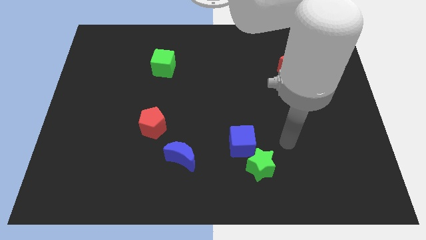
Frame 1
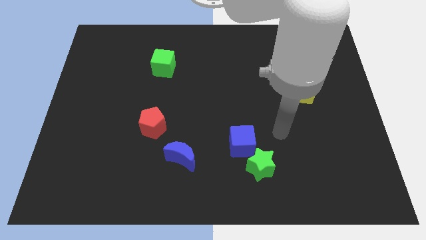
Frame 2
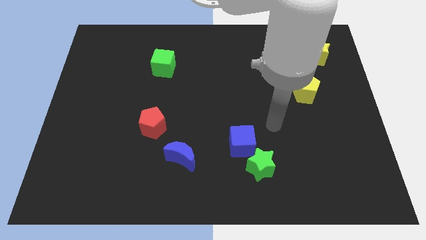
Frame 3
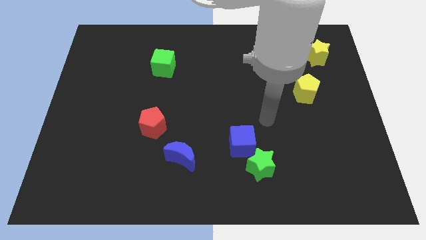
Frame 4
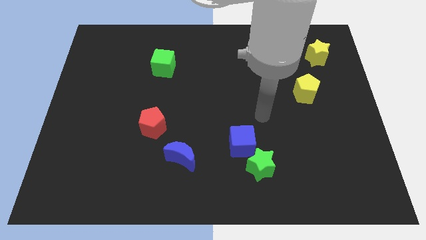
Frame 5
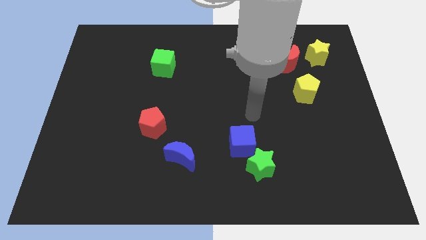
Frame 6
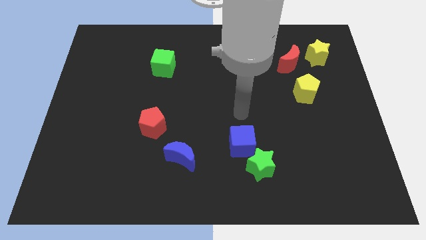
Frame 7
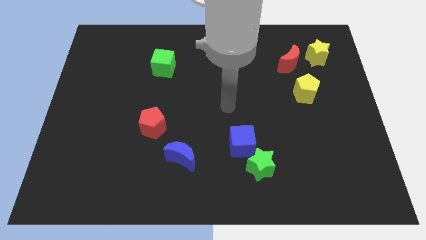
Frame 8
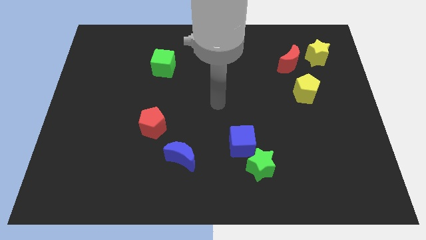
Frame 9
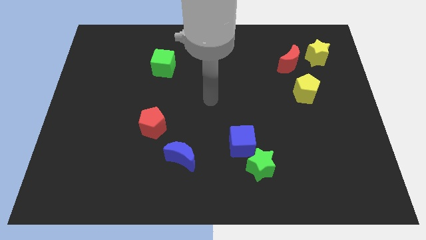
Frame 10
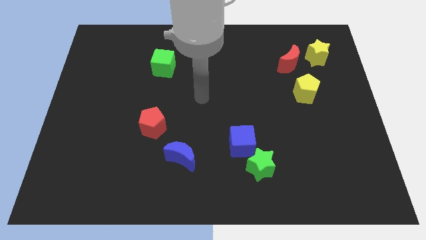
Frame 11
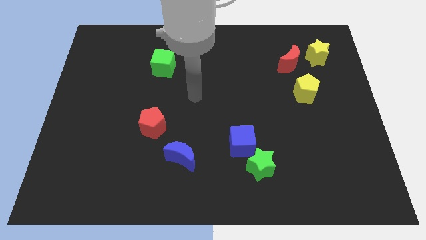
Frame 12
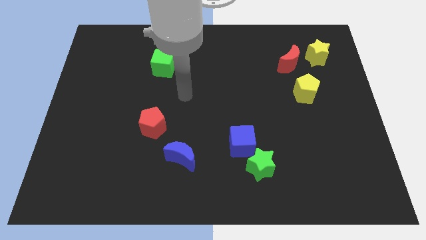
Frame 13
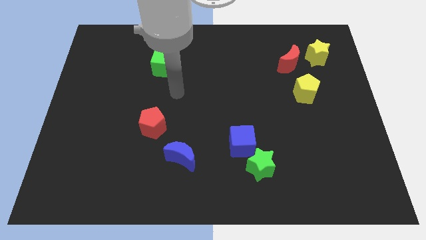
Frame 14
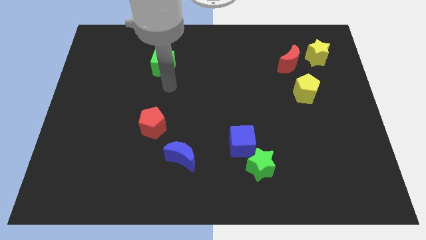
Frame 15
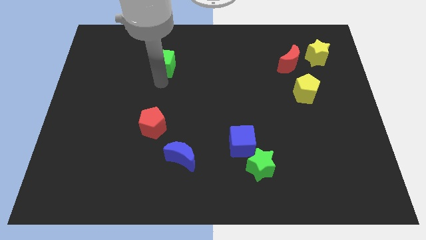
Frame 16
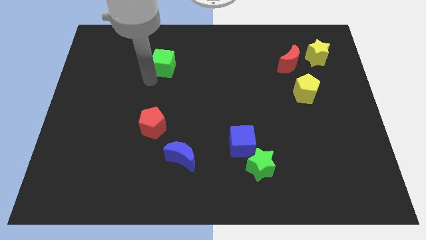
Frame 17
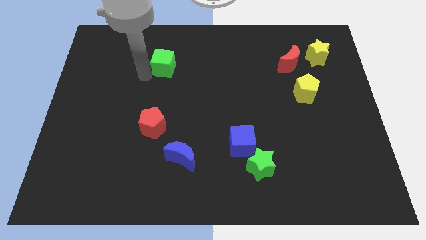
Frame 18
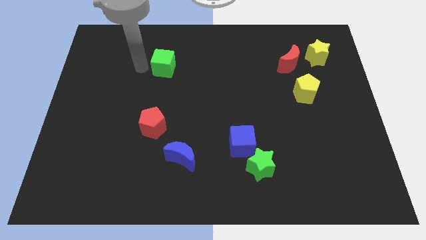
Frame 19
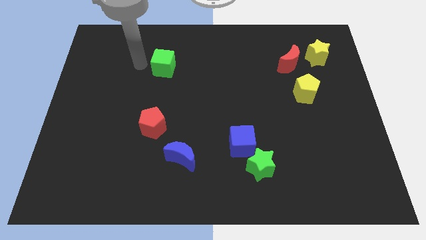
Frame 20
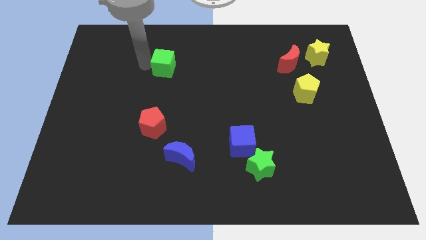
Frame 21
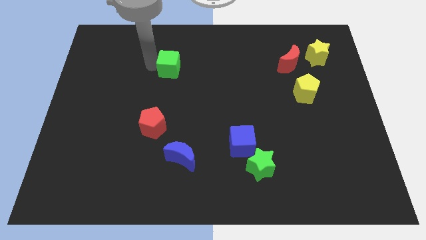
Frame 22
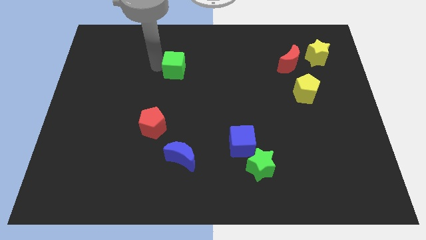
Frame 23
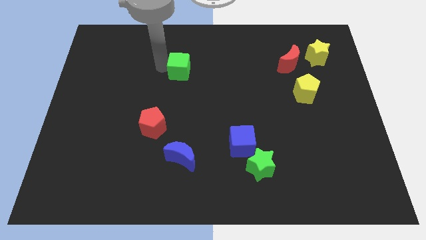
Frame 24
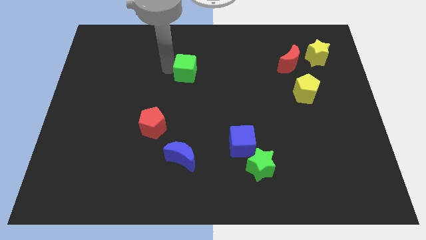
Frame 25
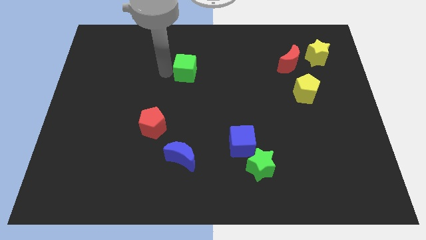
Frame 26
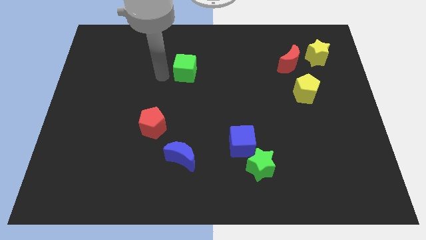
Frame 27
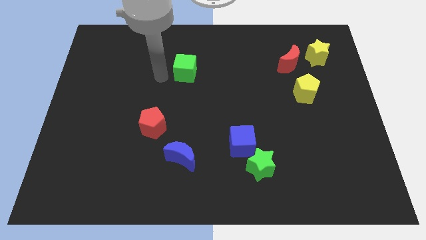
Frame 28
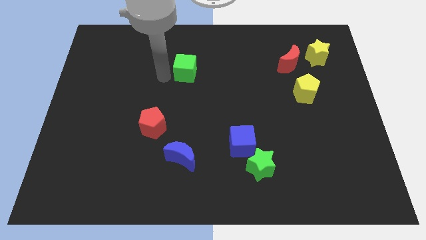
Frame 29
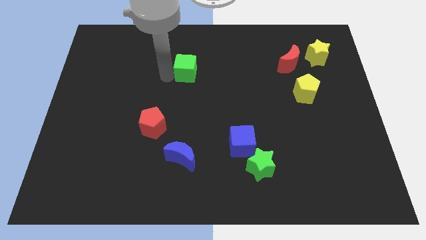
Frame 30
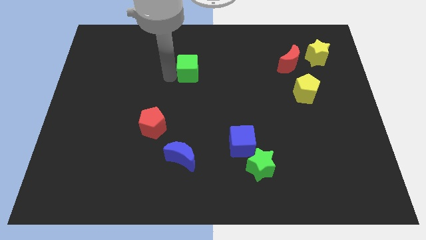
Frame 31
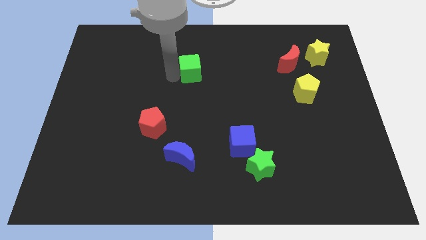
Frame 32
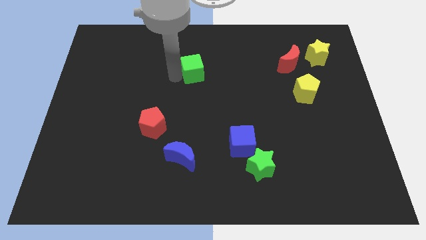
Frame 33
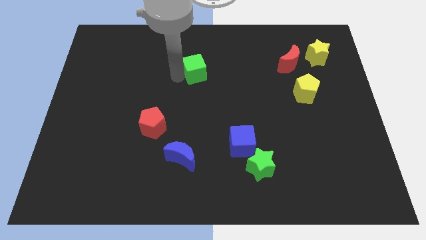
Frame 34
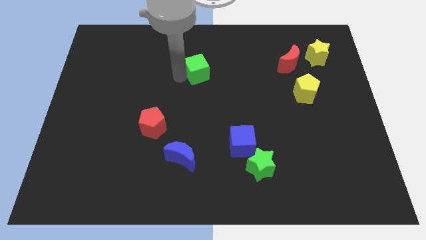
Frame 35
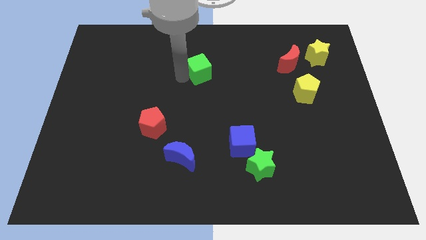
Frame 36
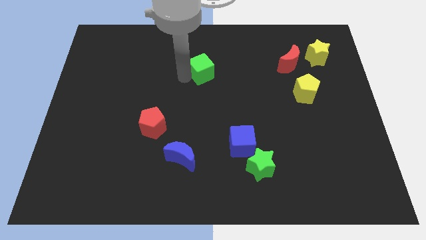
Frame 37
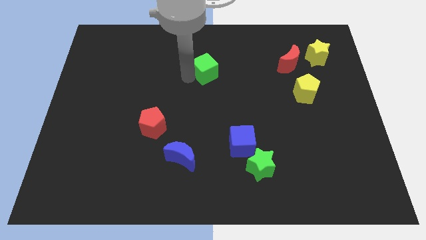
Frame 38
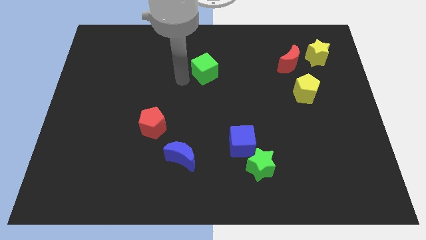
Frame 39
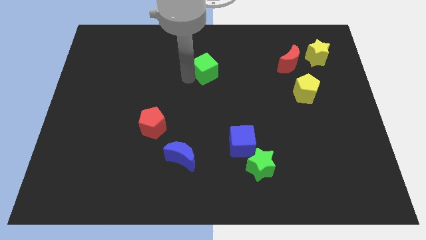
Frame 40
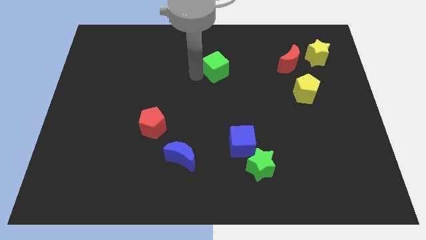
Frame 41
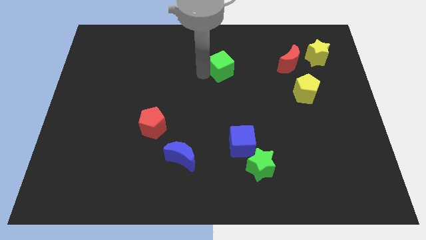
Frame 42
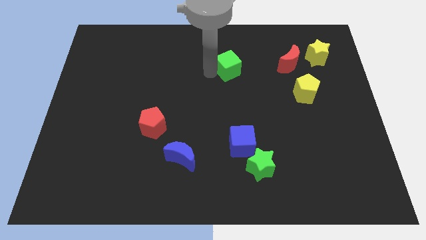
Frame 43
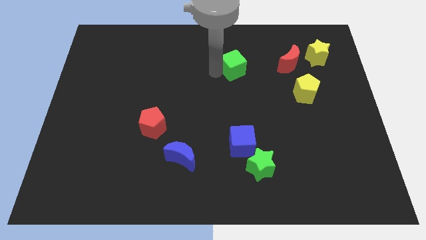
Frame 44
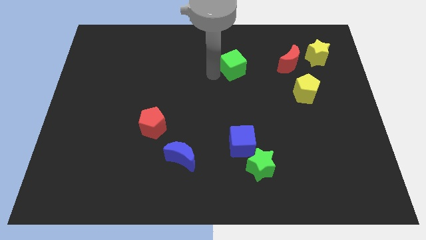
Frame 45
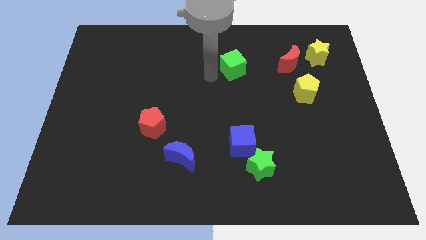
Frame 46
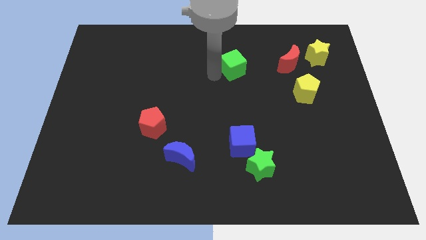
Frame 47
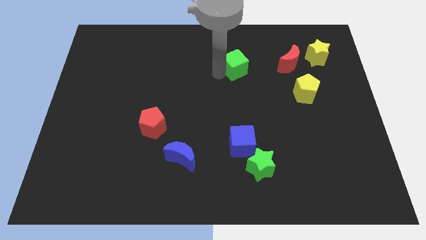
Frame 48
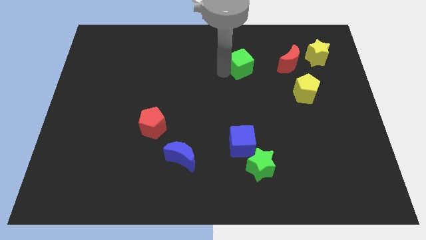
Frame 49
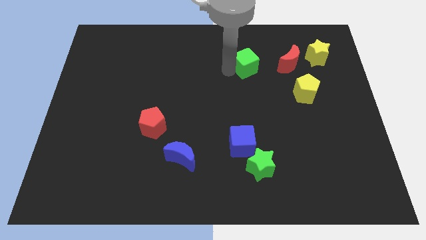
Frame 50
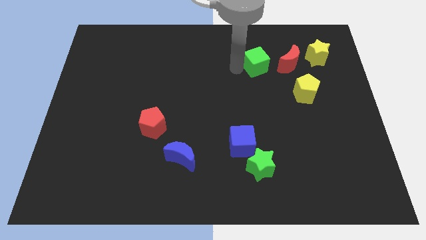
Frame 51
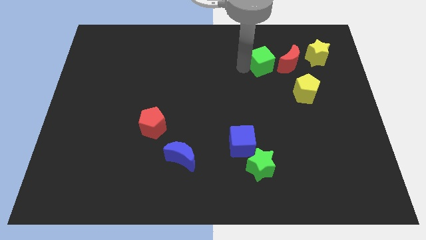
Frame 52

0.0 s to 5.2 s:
put the green cube left of the yellow star

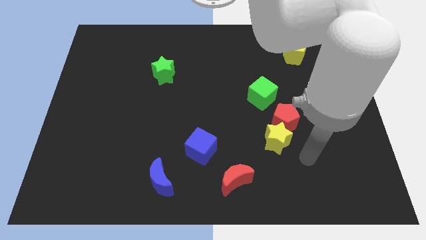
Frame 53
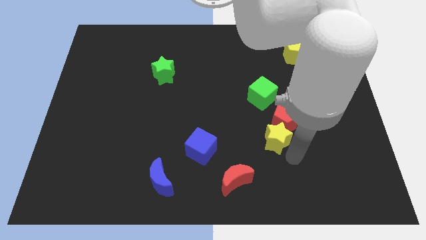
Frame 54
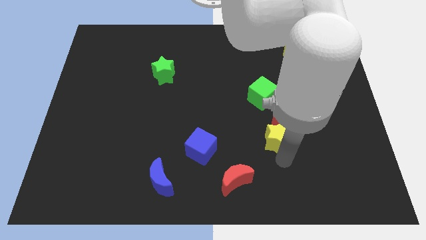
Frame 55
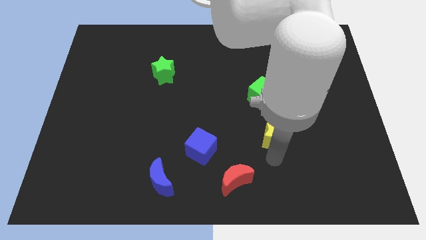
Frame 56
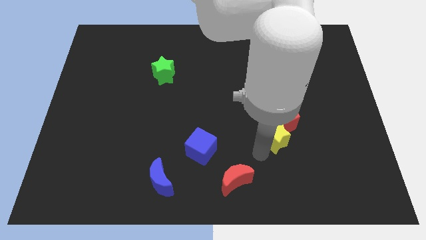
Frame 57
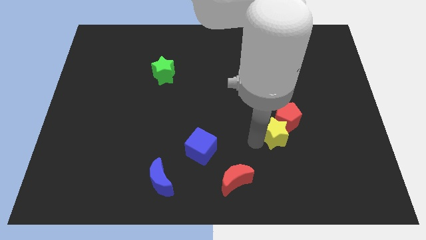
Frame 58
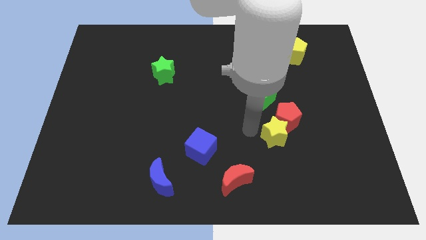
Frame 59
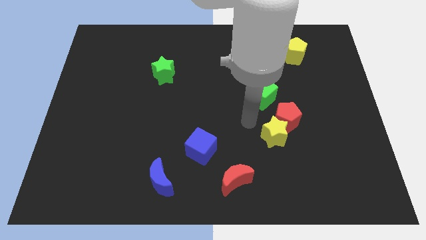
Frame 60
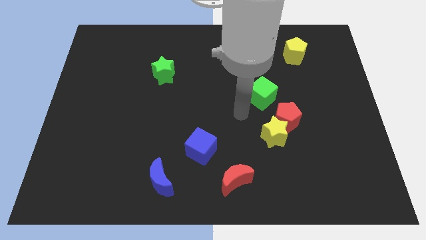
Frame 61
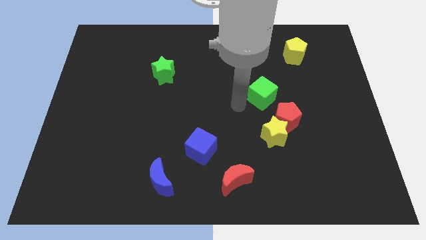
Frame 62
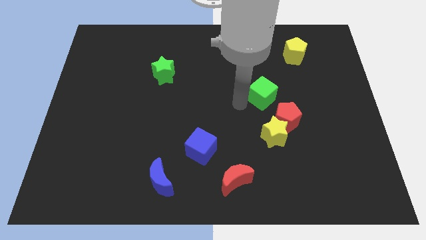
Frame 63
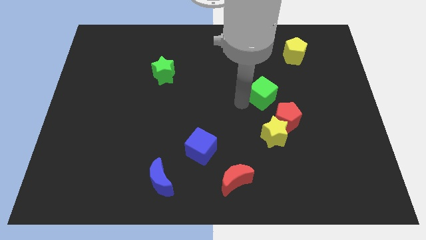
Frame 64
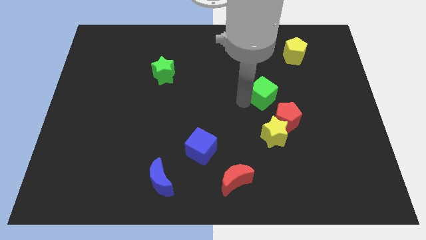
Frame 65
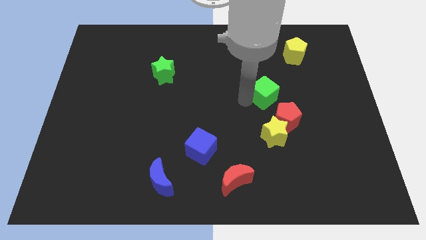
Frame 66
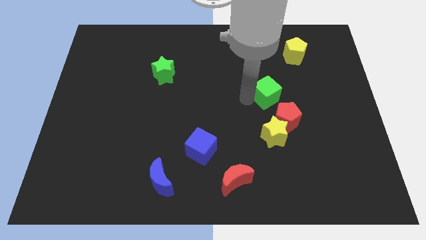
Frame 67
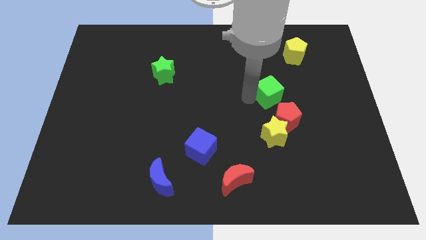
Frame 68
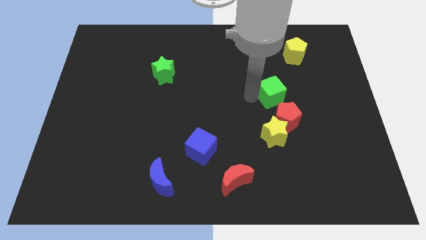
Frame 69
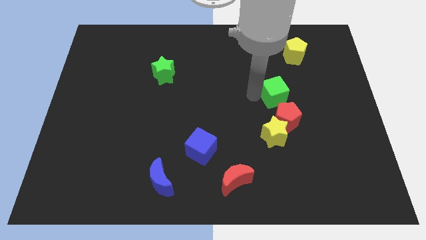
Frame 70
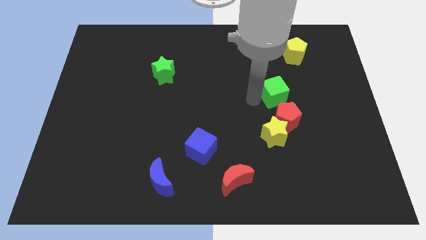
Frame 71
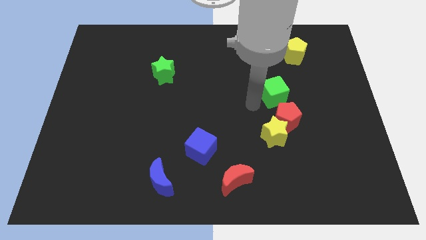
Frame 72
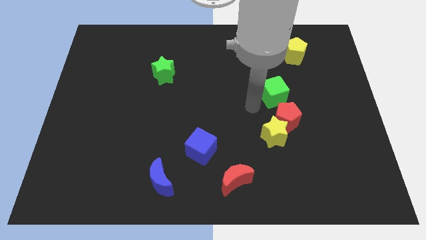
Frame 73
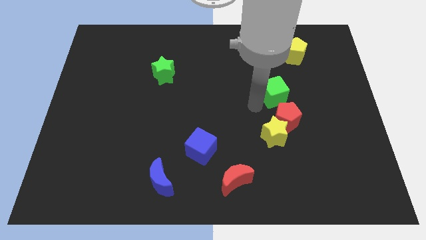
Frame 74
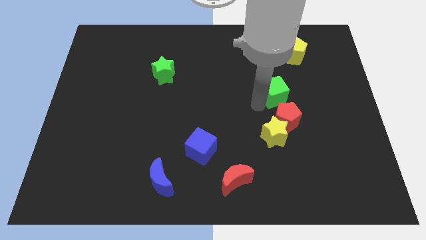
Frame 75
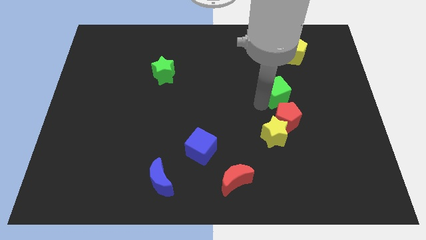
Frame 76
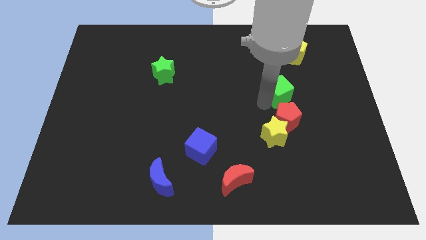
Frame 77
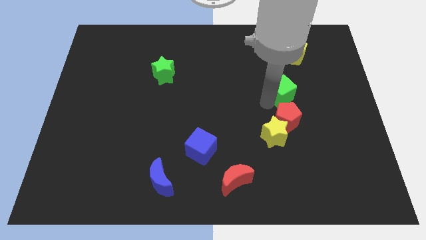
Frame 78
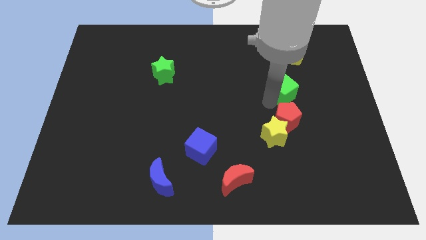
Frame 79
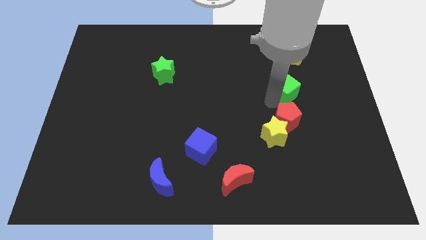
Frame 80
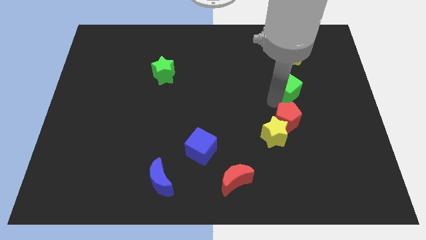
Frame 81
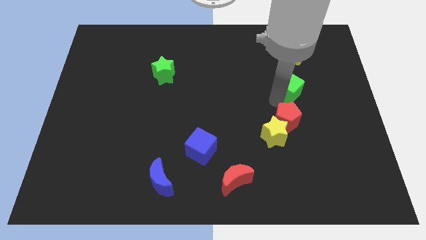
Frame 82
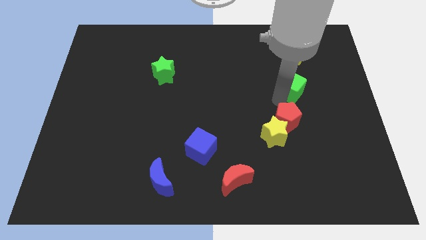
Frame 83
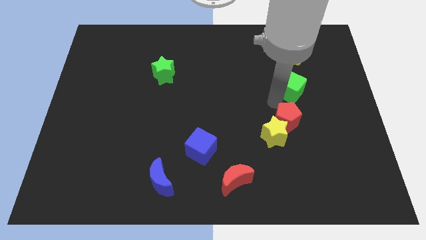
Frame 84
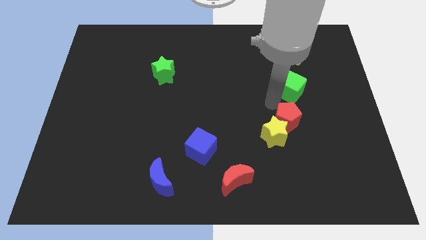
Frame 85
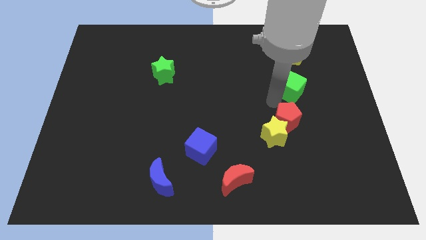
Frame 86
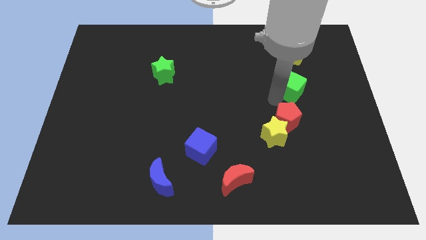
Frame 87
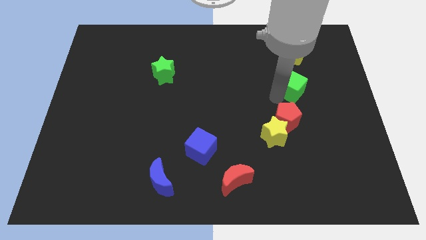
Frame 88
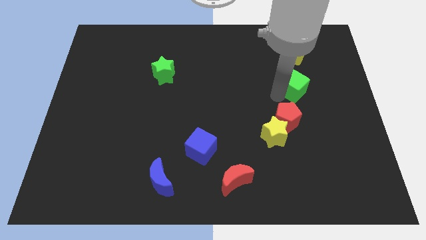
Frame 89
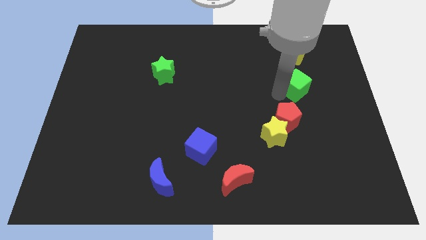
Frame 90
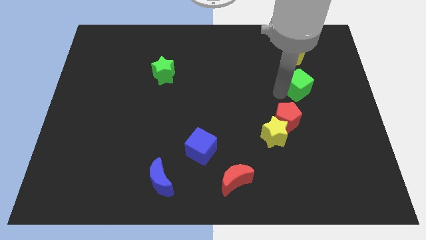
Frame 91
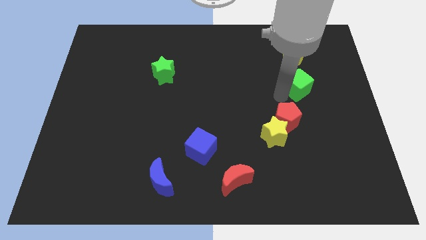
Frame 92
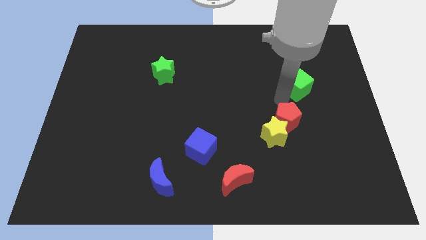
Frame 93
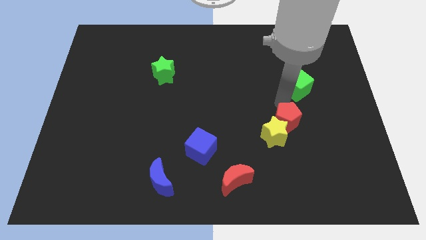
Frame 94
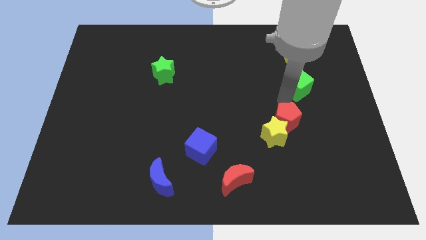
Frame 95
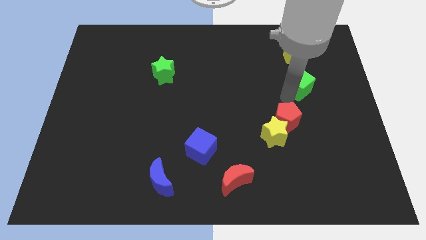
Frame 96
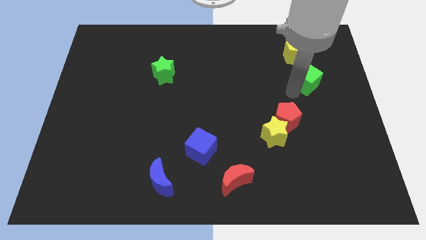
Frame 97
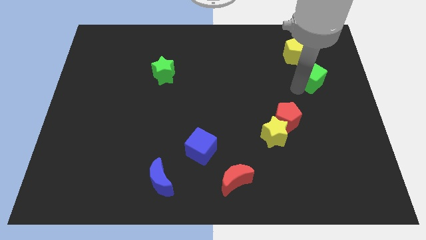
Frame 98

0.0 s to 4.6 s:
put the green cube to the bottom right of the yellow pentagon
